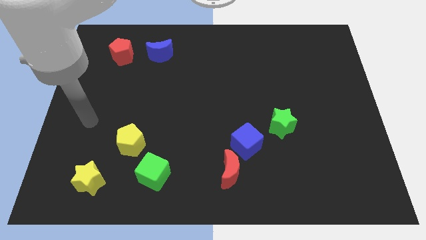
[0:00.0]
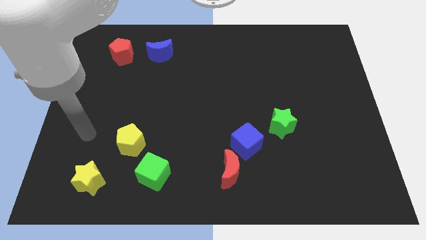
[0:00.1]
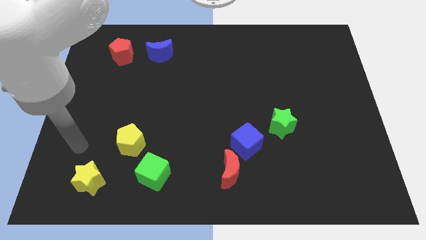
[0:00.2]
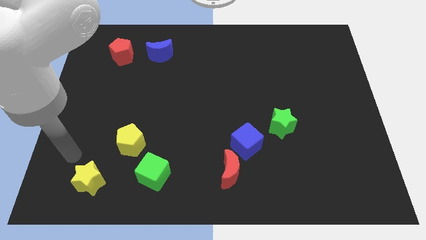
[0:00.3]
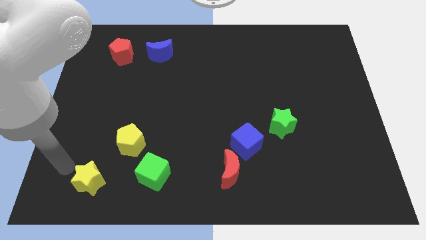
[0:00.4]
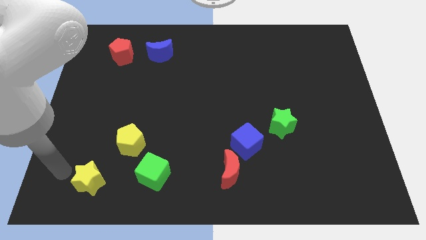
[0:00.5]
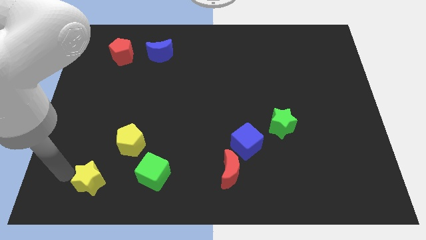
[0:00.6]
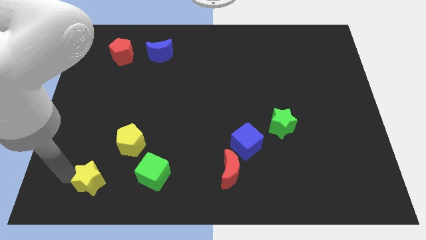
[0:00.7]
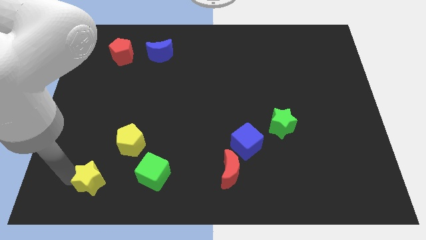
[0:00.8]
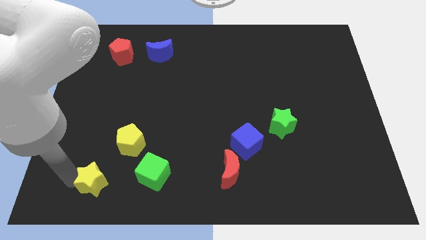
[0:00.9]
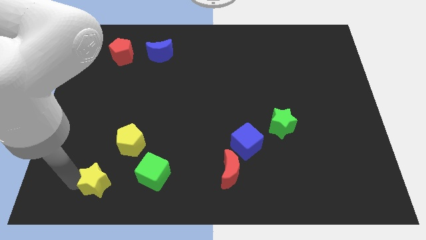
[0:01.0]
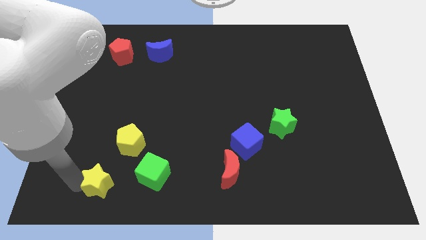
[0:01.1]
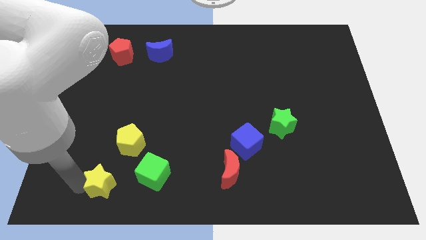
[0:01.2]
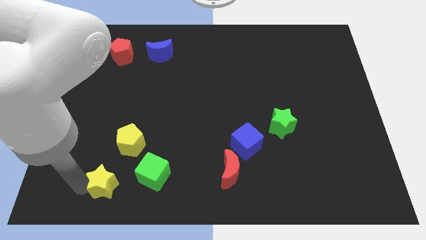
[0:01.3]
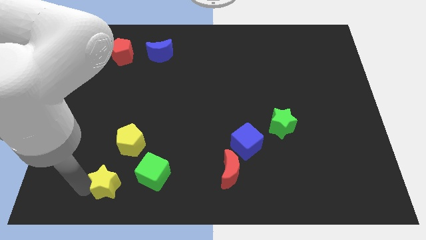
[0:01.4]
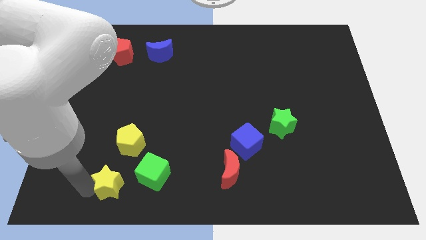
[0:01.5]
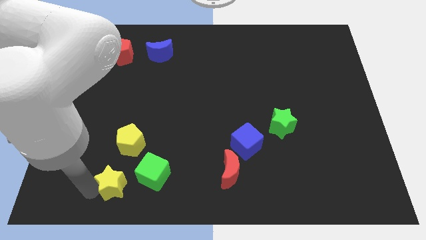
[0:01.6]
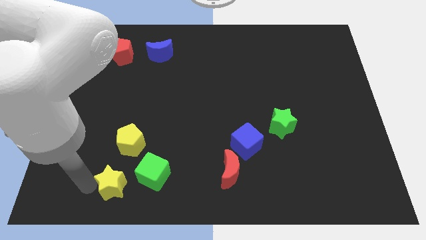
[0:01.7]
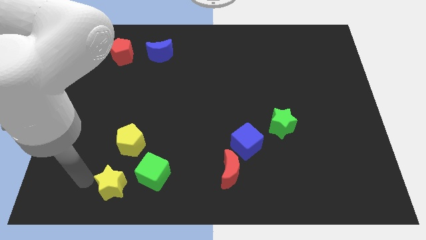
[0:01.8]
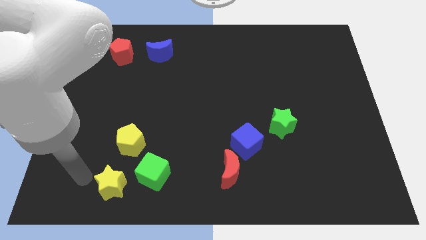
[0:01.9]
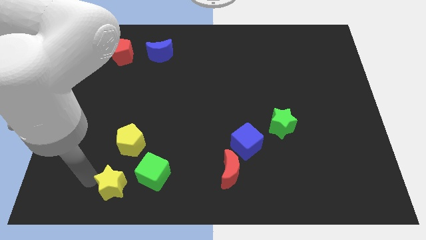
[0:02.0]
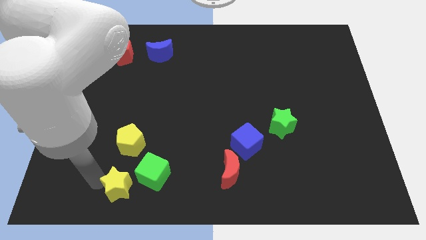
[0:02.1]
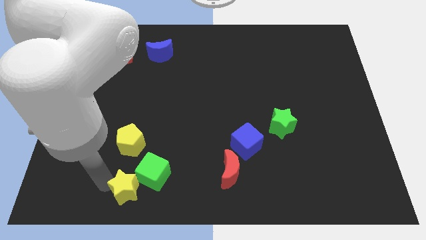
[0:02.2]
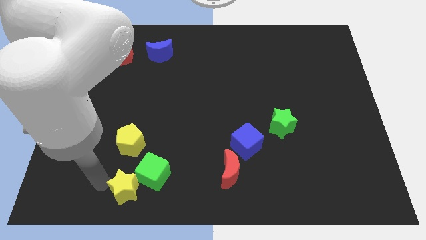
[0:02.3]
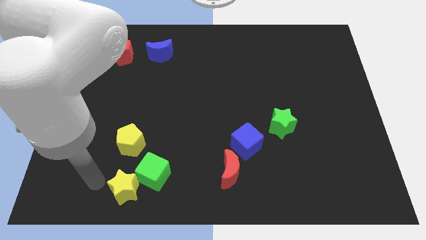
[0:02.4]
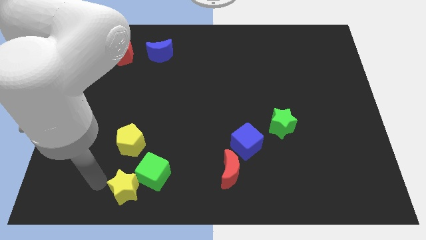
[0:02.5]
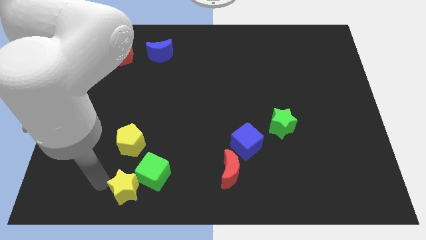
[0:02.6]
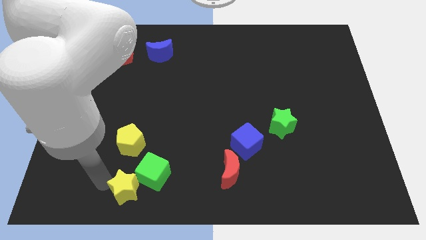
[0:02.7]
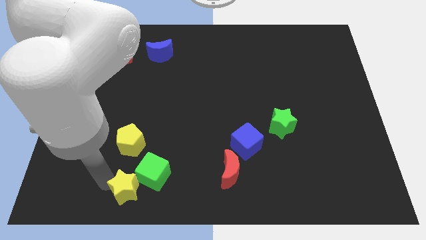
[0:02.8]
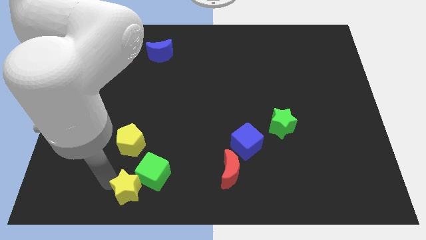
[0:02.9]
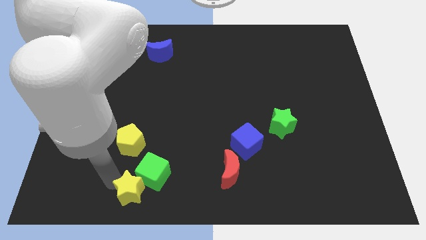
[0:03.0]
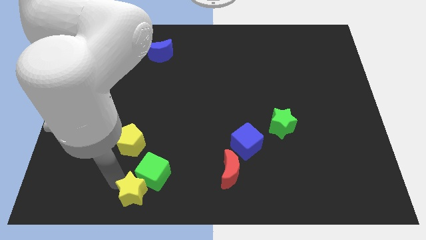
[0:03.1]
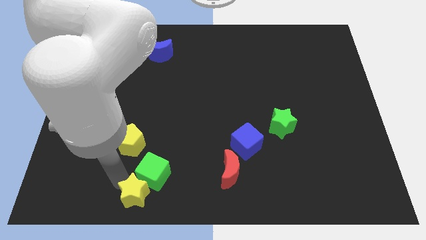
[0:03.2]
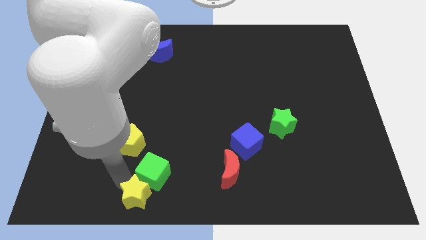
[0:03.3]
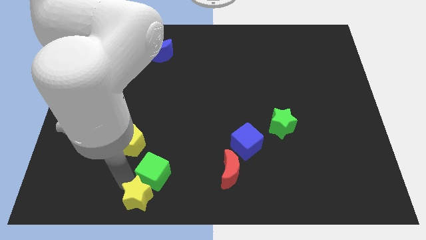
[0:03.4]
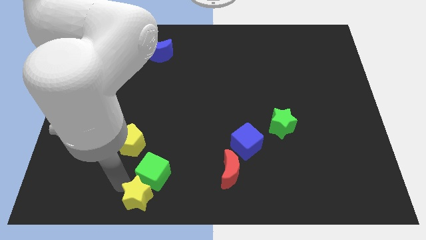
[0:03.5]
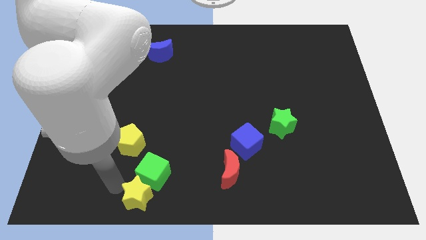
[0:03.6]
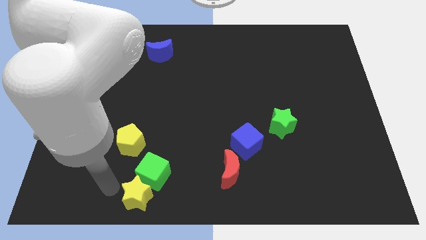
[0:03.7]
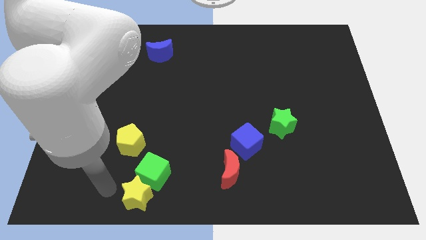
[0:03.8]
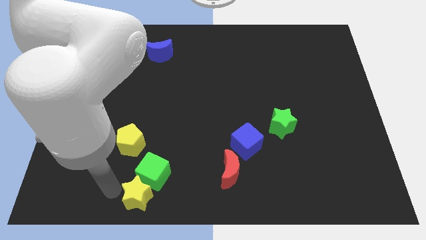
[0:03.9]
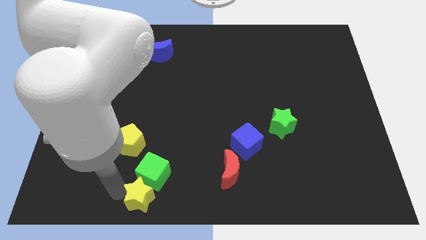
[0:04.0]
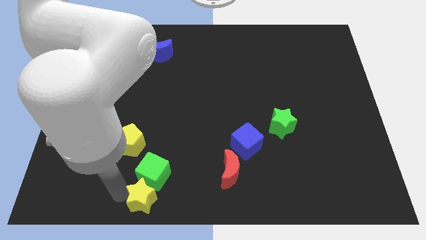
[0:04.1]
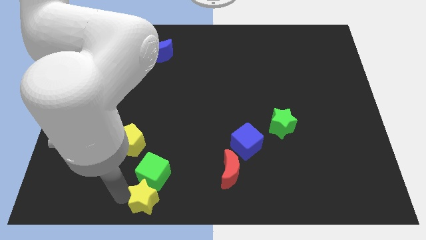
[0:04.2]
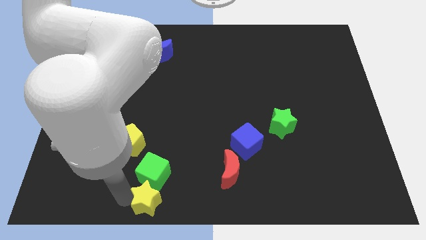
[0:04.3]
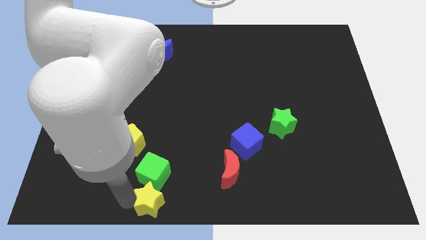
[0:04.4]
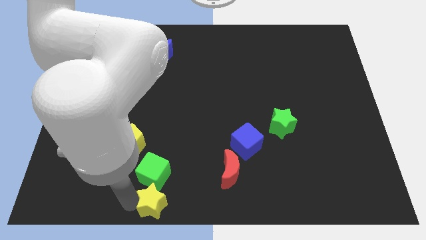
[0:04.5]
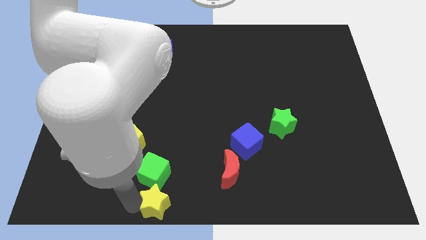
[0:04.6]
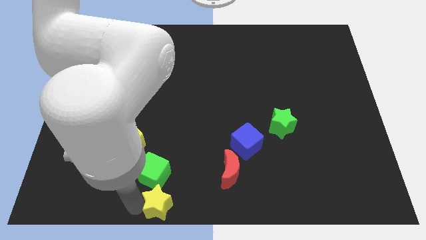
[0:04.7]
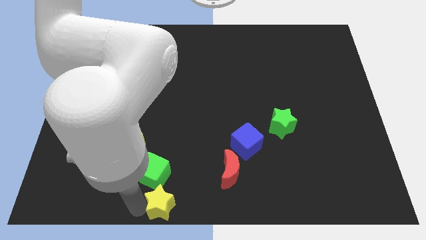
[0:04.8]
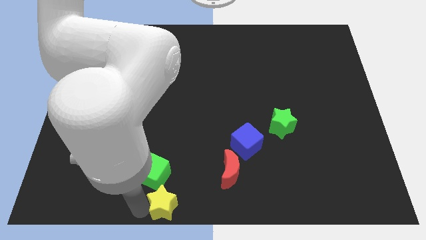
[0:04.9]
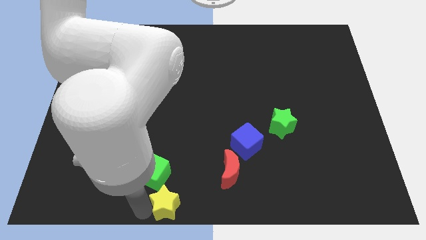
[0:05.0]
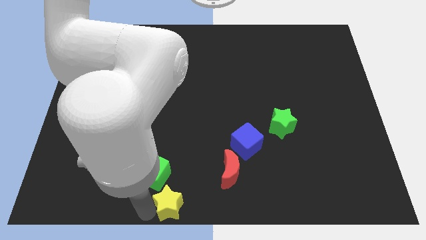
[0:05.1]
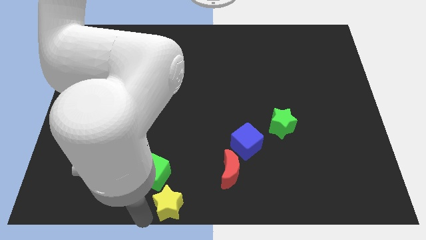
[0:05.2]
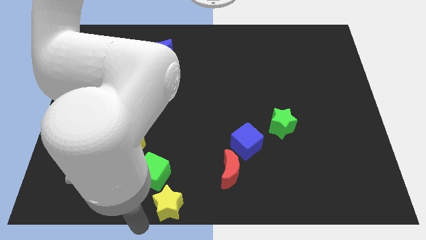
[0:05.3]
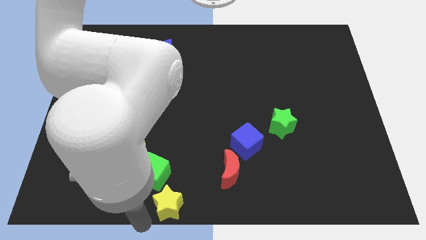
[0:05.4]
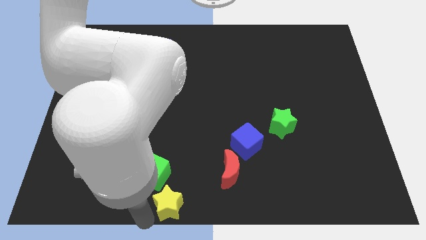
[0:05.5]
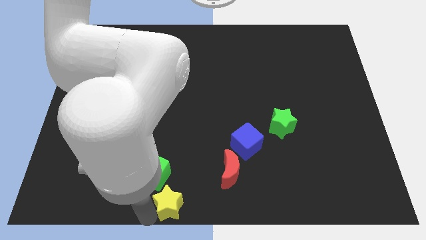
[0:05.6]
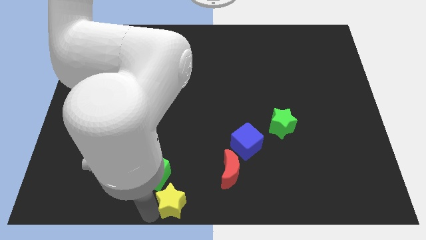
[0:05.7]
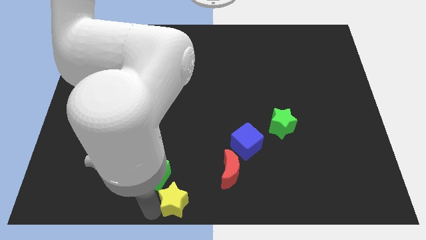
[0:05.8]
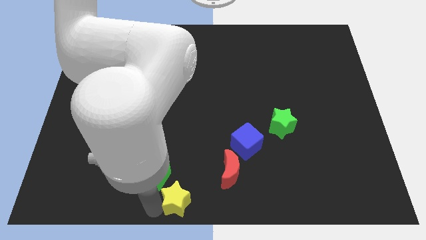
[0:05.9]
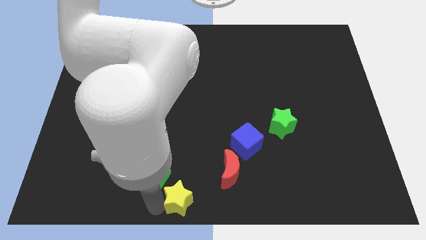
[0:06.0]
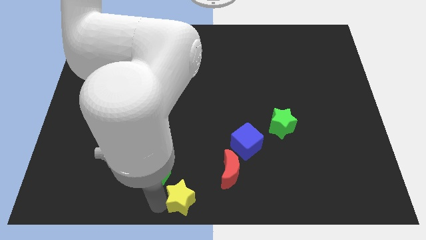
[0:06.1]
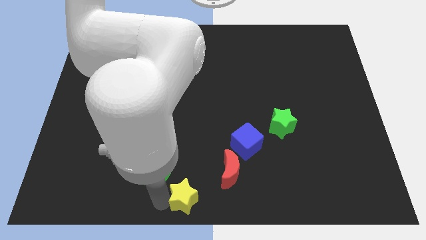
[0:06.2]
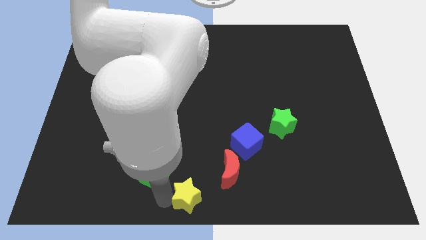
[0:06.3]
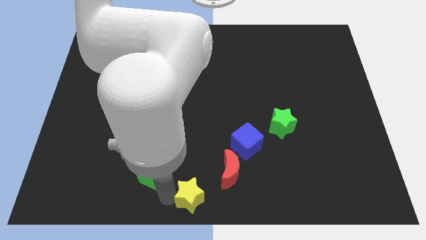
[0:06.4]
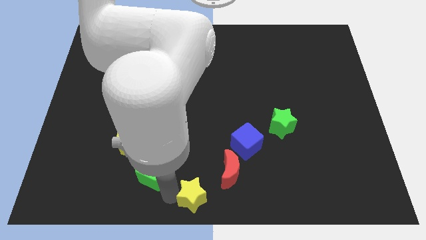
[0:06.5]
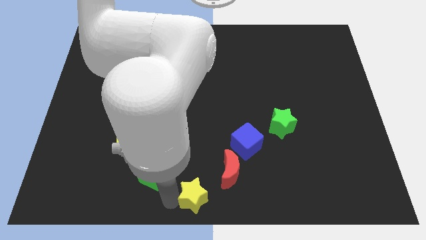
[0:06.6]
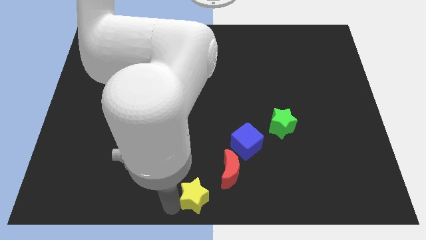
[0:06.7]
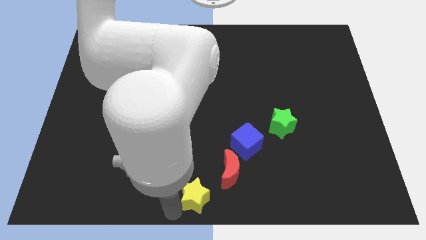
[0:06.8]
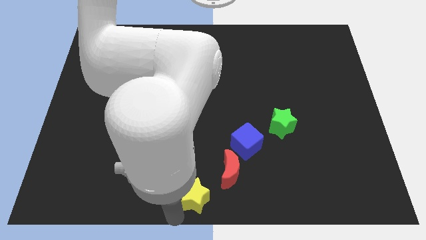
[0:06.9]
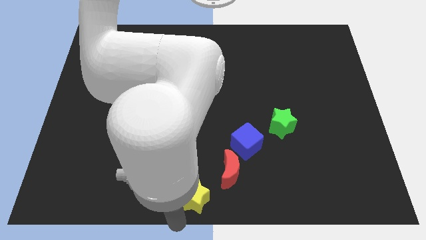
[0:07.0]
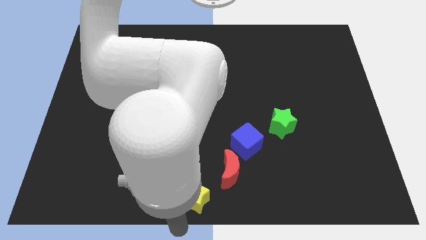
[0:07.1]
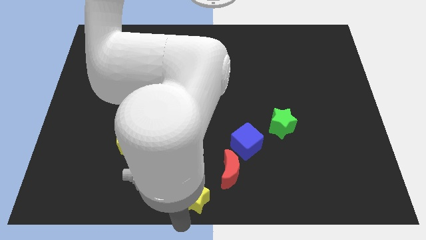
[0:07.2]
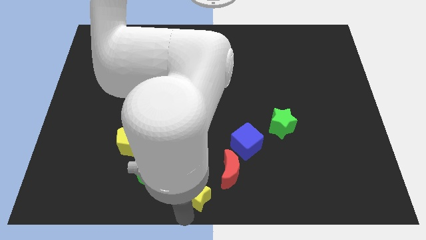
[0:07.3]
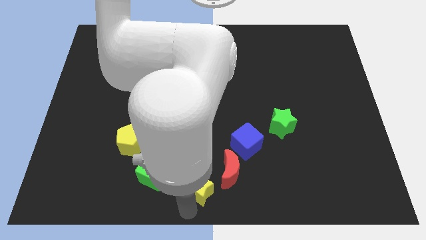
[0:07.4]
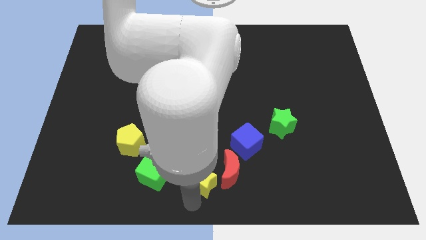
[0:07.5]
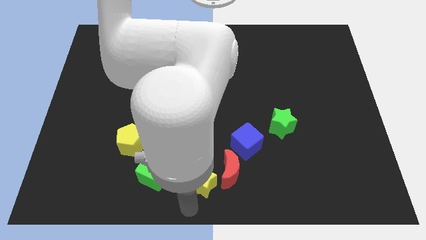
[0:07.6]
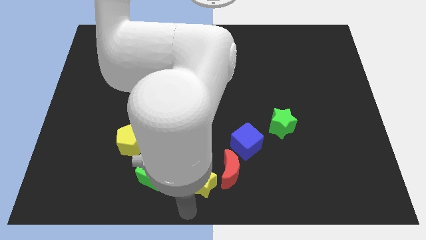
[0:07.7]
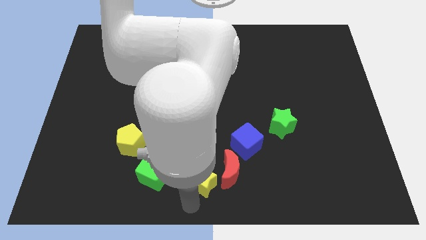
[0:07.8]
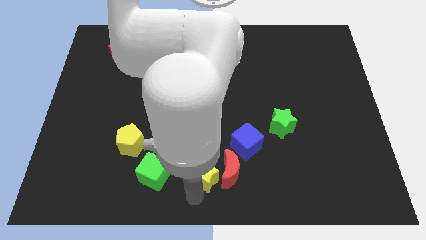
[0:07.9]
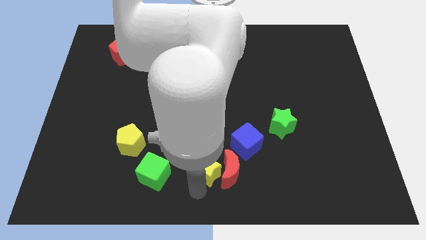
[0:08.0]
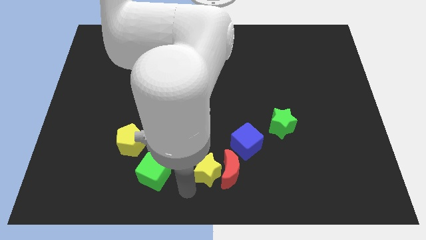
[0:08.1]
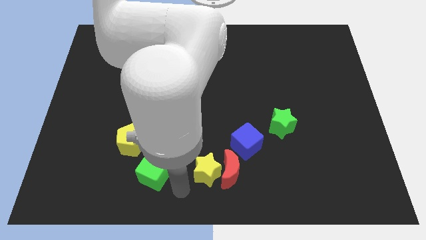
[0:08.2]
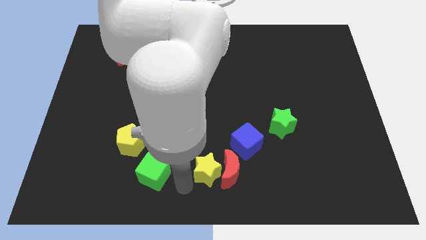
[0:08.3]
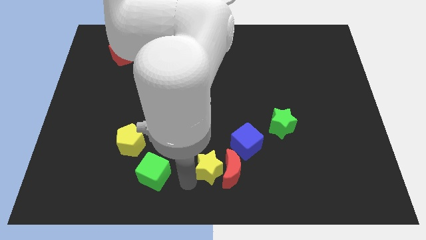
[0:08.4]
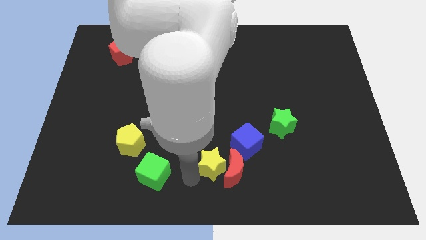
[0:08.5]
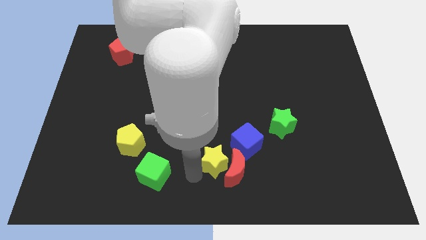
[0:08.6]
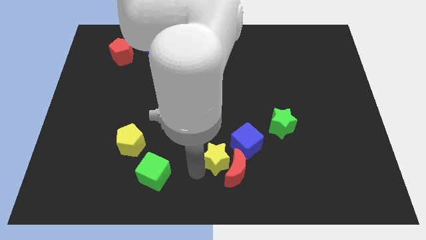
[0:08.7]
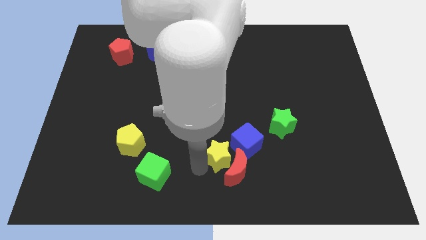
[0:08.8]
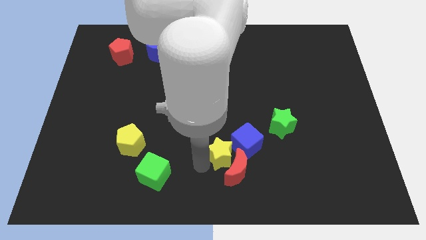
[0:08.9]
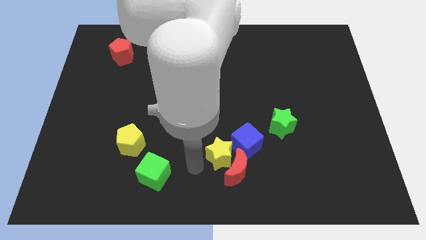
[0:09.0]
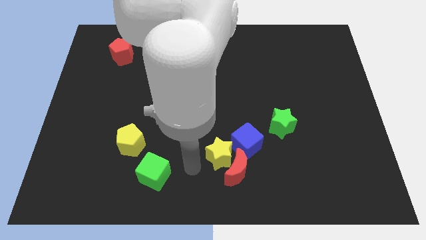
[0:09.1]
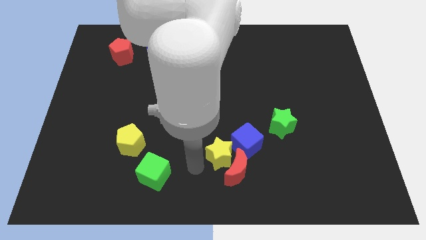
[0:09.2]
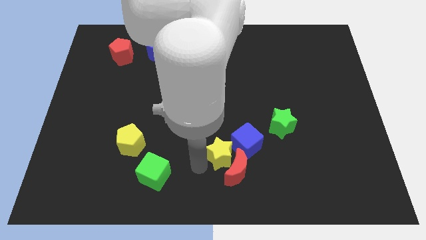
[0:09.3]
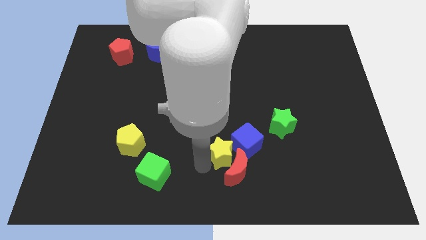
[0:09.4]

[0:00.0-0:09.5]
slide the yellow star towards the blue cube
